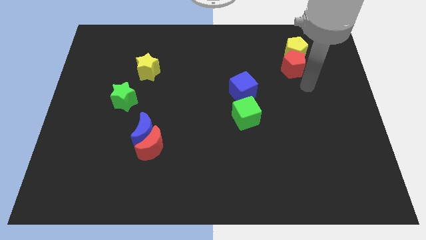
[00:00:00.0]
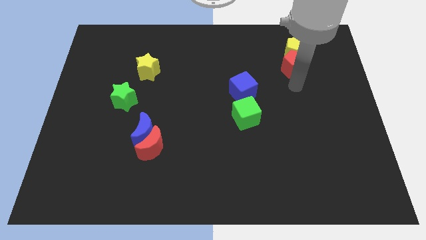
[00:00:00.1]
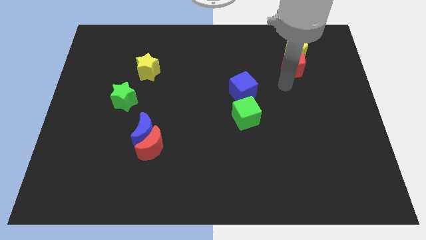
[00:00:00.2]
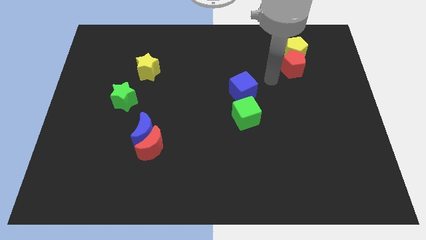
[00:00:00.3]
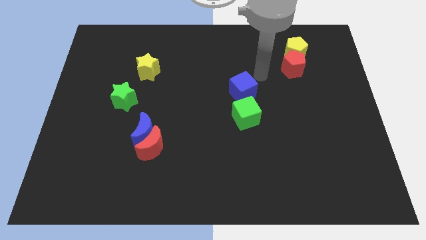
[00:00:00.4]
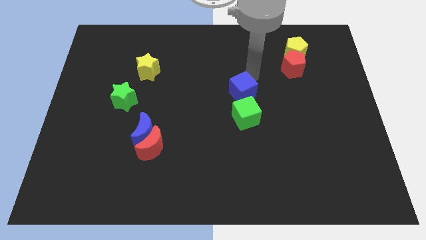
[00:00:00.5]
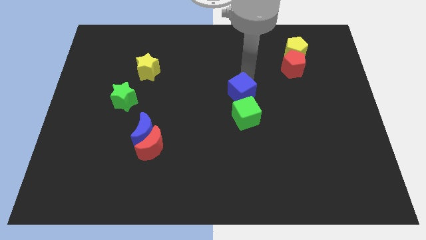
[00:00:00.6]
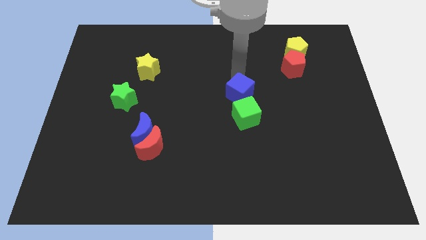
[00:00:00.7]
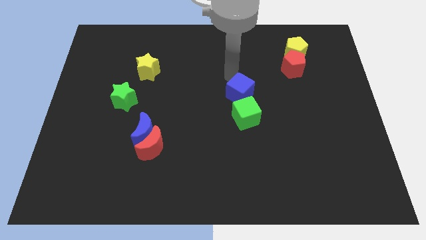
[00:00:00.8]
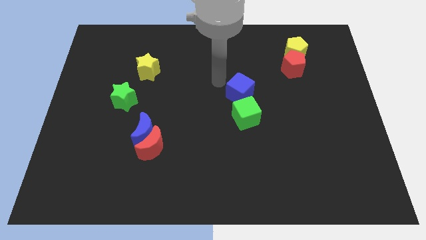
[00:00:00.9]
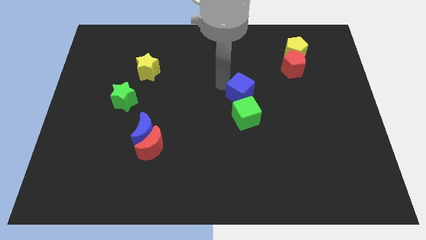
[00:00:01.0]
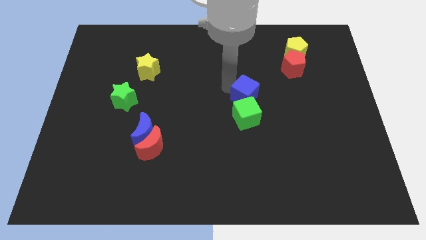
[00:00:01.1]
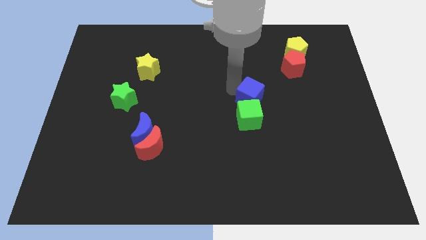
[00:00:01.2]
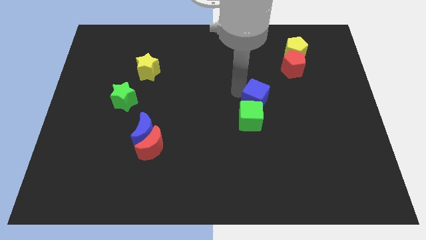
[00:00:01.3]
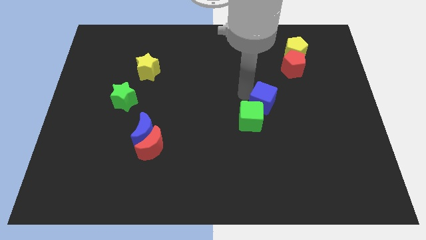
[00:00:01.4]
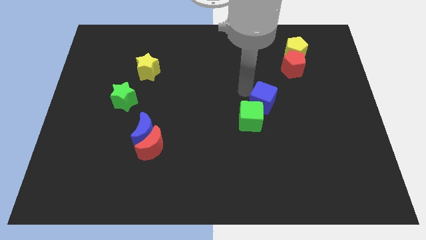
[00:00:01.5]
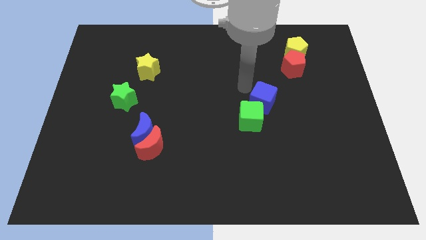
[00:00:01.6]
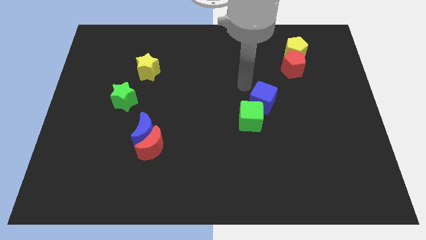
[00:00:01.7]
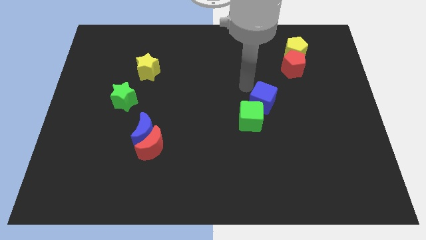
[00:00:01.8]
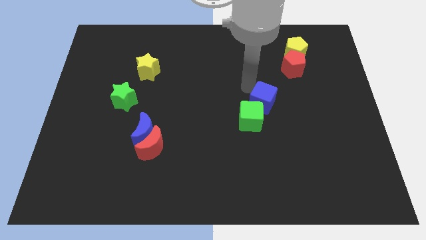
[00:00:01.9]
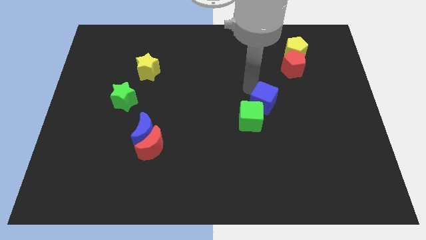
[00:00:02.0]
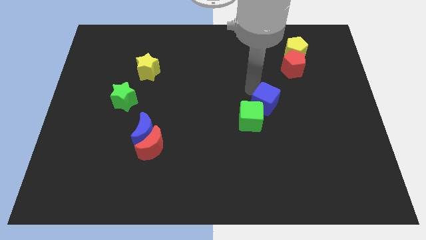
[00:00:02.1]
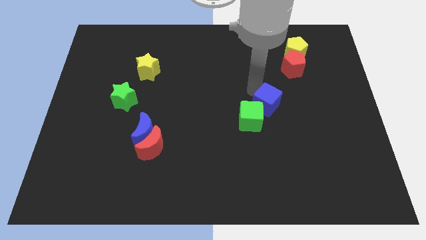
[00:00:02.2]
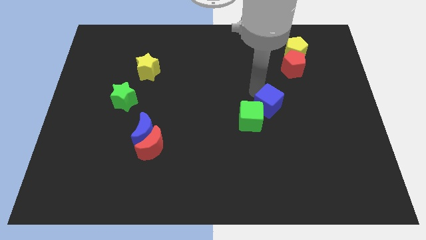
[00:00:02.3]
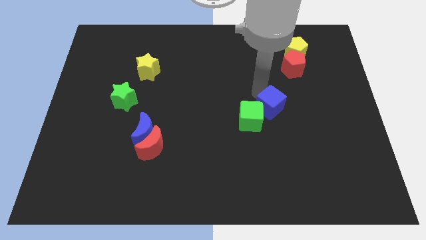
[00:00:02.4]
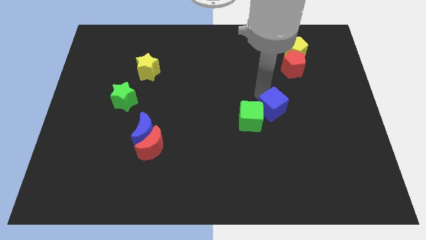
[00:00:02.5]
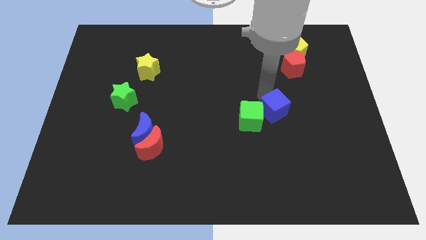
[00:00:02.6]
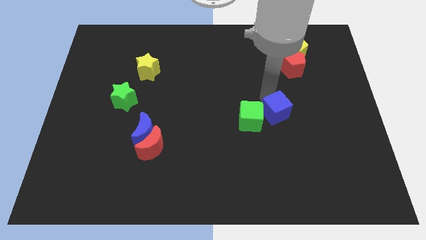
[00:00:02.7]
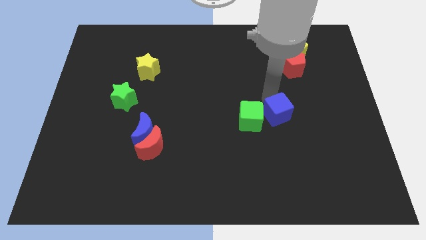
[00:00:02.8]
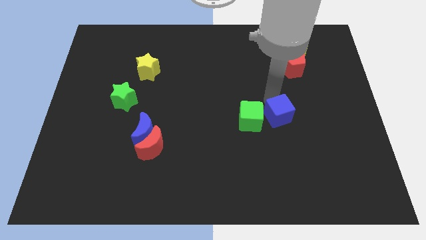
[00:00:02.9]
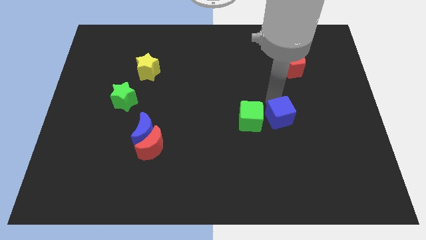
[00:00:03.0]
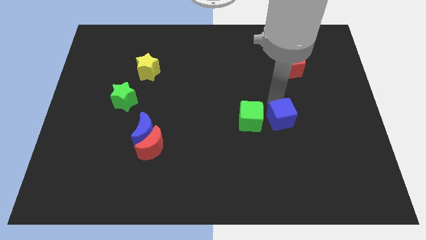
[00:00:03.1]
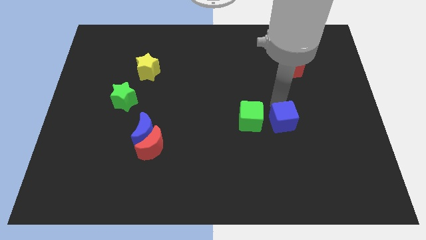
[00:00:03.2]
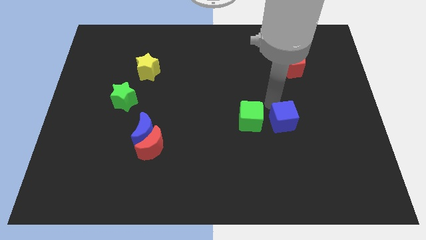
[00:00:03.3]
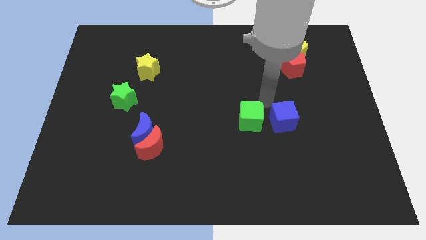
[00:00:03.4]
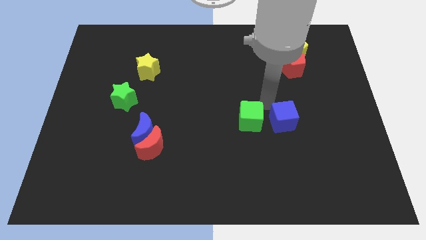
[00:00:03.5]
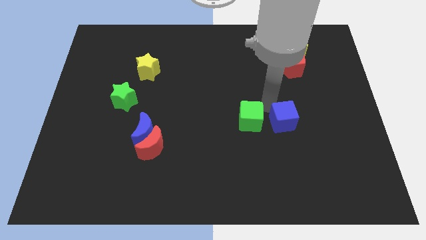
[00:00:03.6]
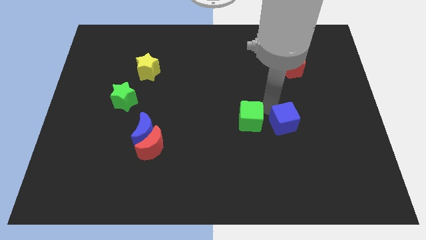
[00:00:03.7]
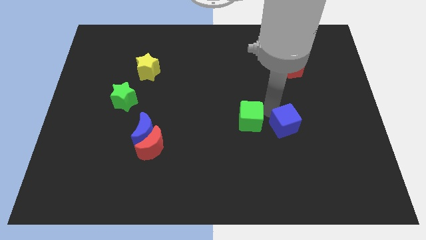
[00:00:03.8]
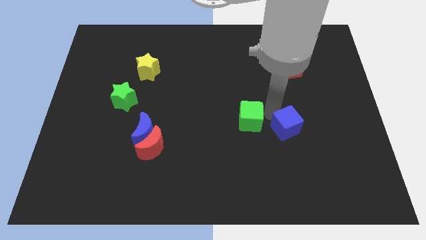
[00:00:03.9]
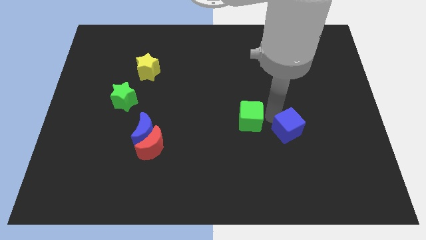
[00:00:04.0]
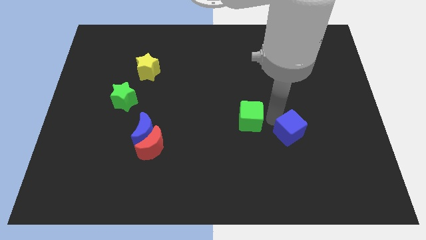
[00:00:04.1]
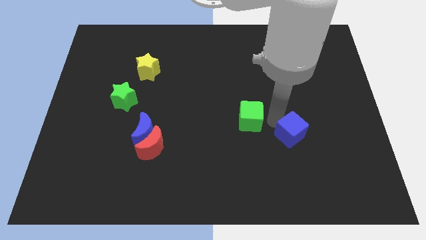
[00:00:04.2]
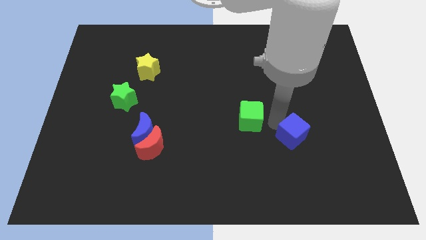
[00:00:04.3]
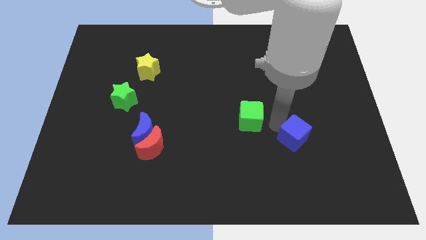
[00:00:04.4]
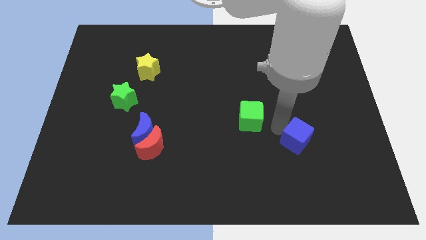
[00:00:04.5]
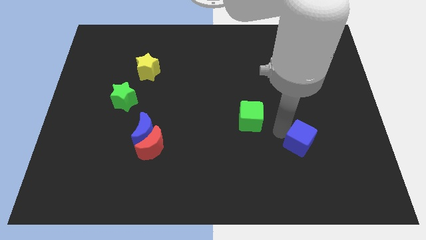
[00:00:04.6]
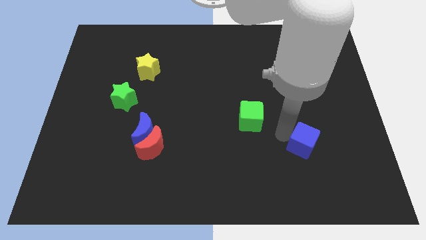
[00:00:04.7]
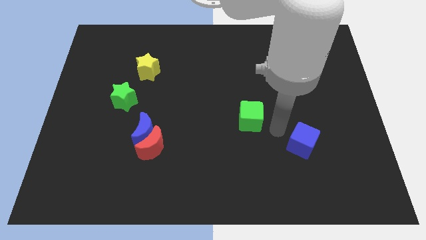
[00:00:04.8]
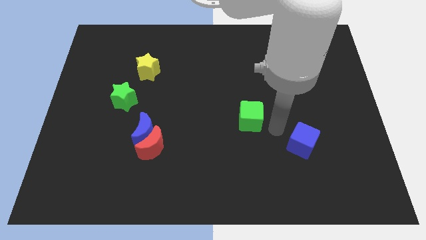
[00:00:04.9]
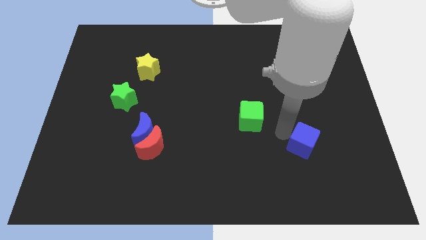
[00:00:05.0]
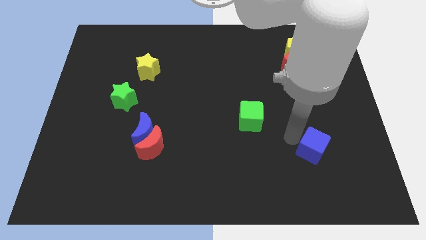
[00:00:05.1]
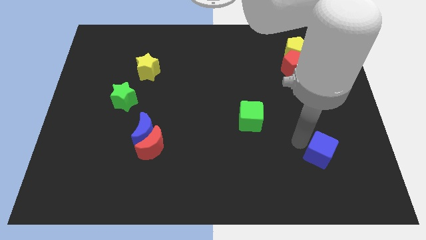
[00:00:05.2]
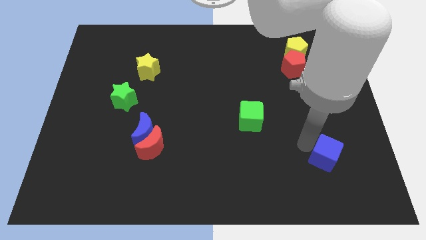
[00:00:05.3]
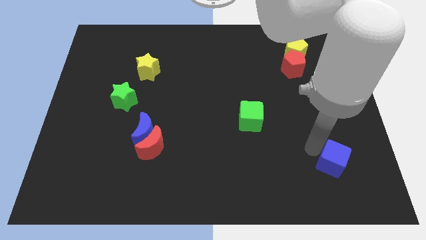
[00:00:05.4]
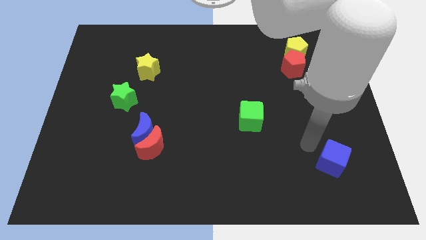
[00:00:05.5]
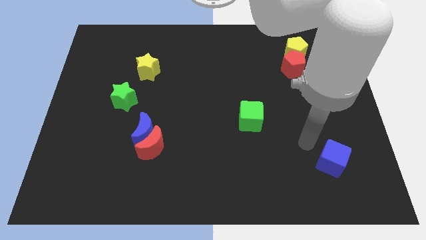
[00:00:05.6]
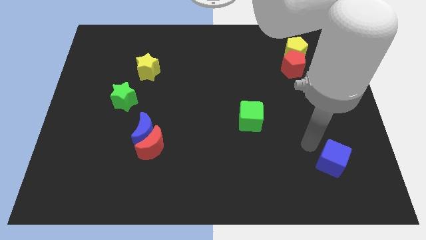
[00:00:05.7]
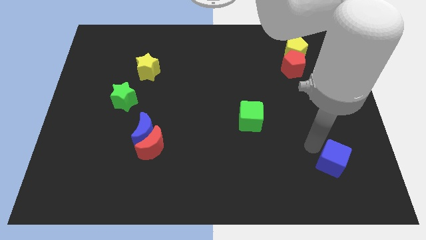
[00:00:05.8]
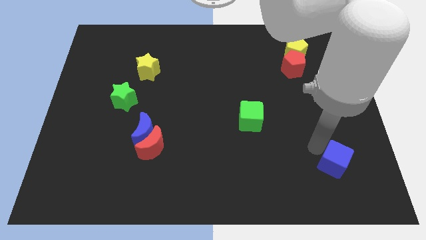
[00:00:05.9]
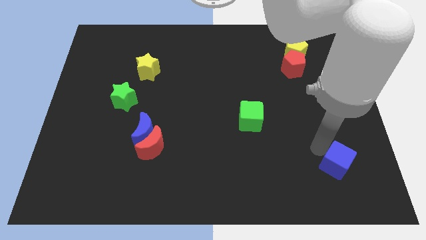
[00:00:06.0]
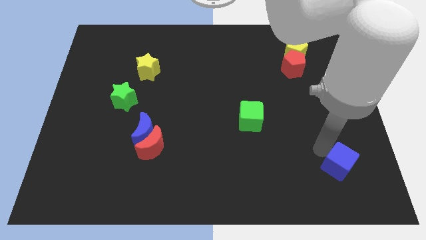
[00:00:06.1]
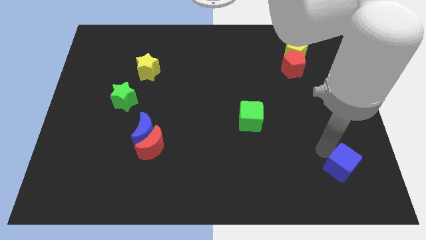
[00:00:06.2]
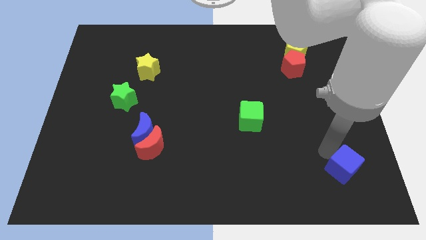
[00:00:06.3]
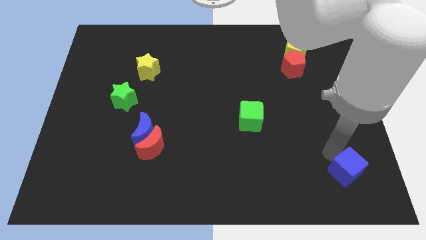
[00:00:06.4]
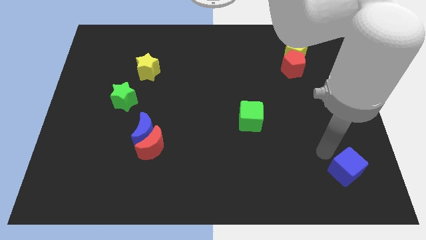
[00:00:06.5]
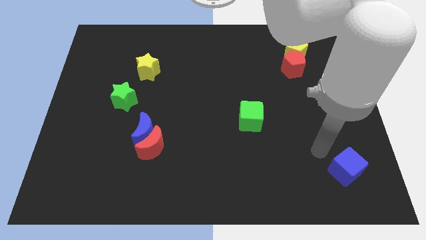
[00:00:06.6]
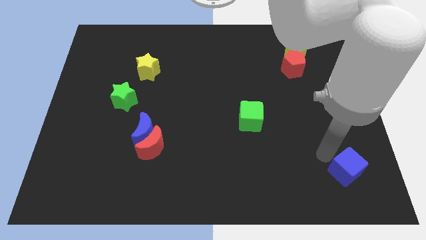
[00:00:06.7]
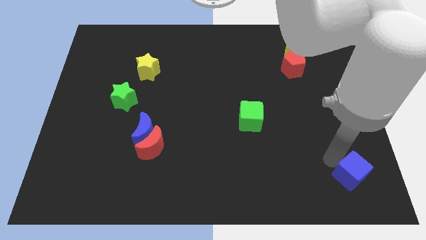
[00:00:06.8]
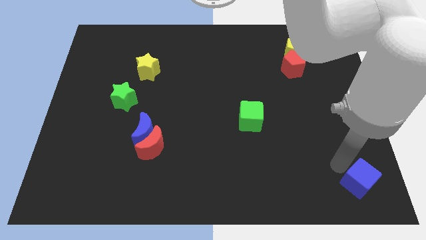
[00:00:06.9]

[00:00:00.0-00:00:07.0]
put the blue cube to the lower right corner
